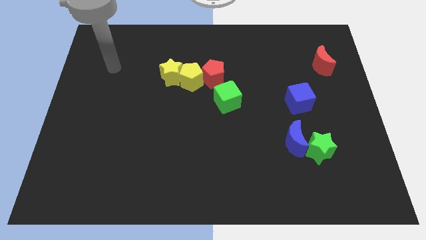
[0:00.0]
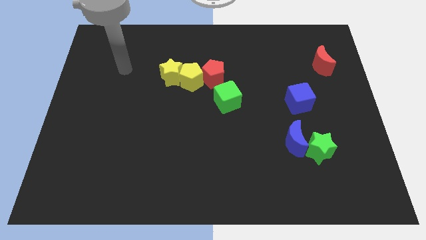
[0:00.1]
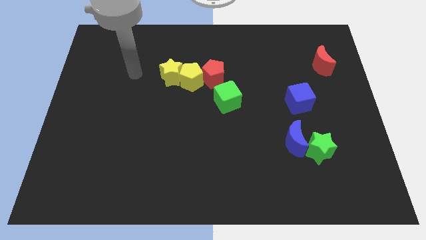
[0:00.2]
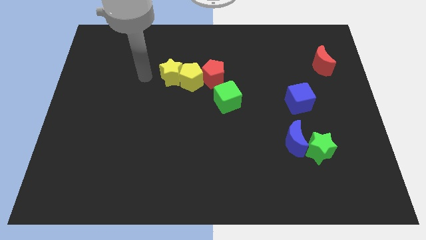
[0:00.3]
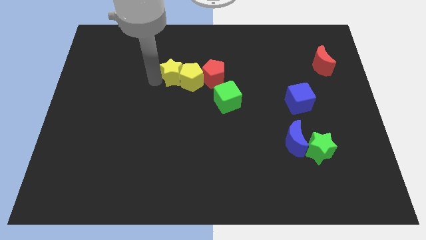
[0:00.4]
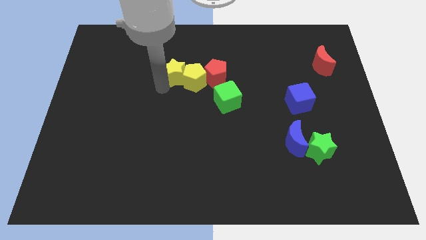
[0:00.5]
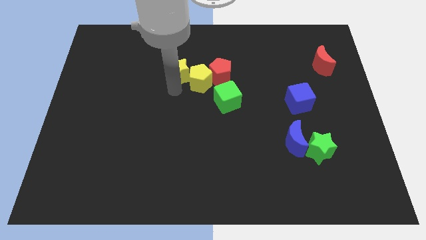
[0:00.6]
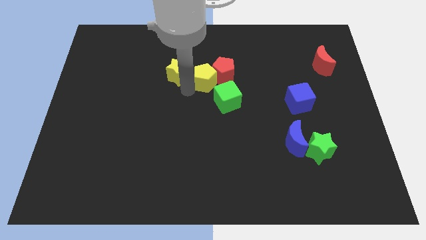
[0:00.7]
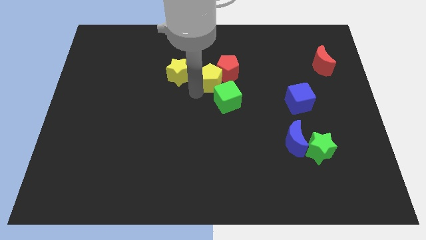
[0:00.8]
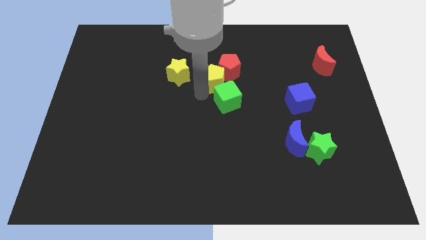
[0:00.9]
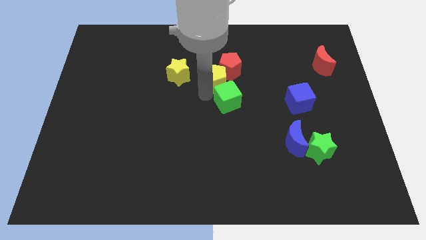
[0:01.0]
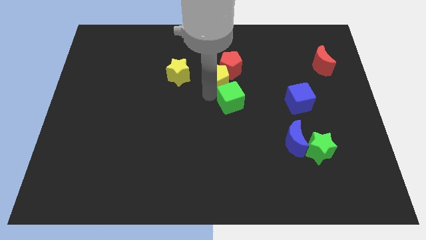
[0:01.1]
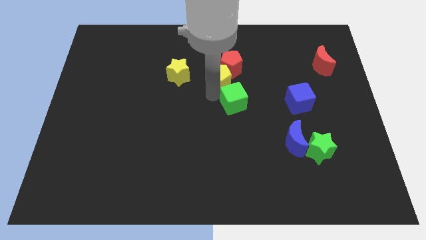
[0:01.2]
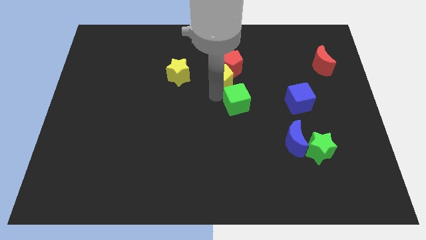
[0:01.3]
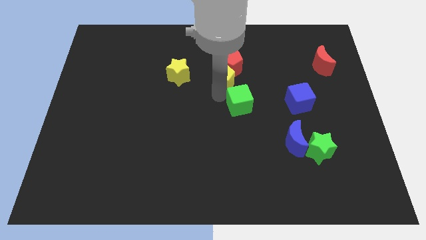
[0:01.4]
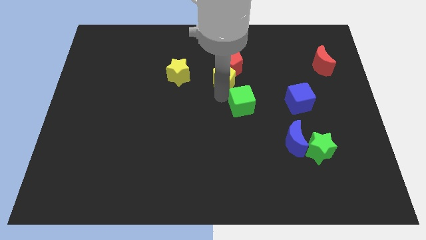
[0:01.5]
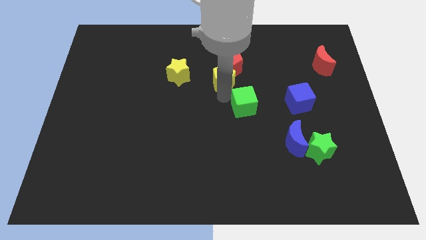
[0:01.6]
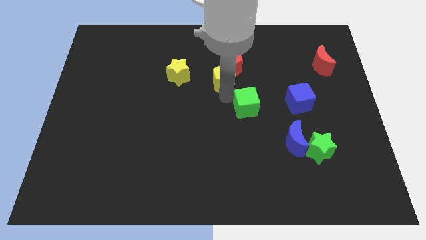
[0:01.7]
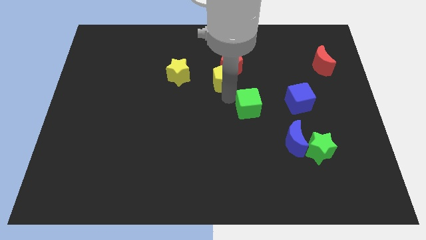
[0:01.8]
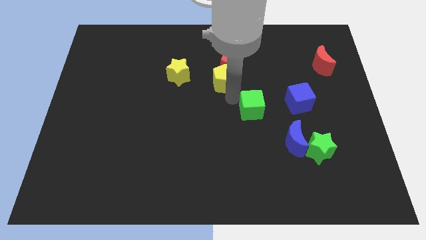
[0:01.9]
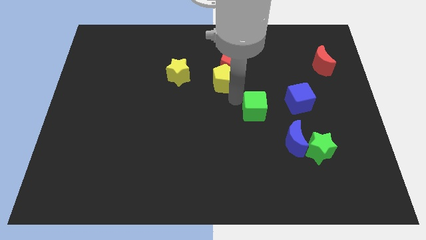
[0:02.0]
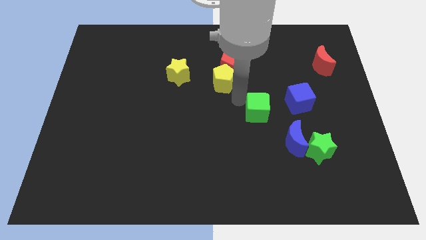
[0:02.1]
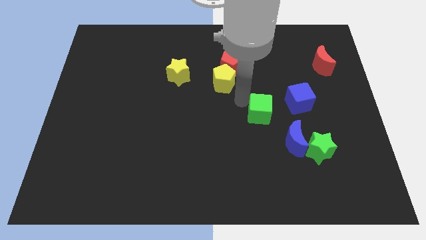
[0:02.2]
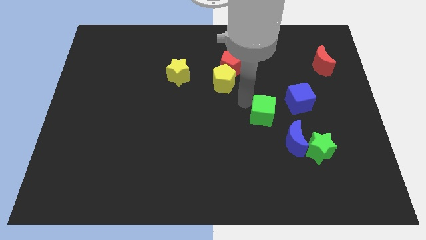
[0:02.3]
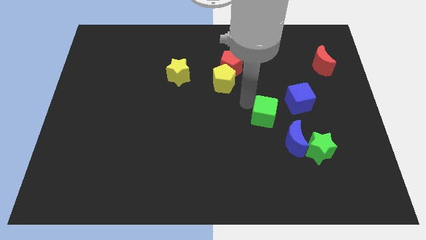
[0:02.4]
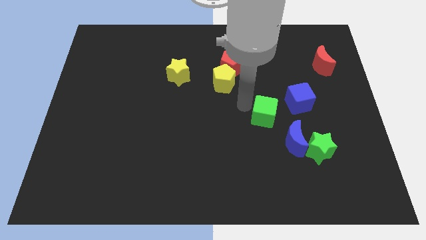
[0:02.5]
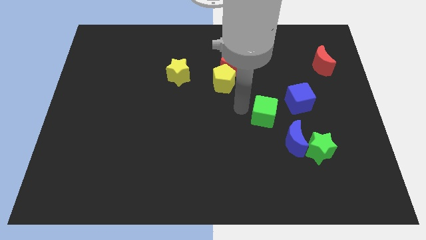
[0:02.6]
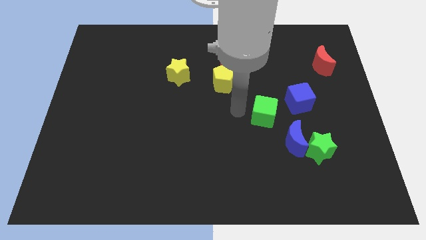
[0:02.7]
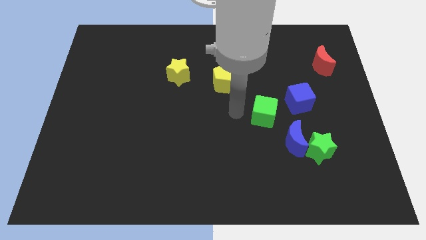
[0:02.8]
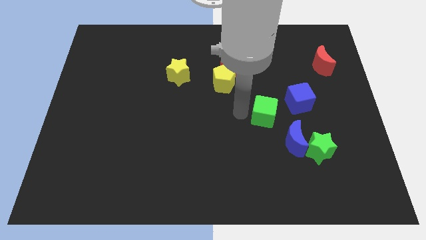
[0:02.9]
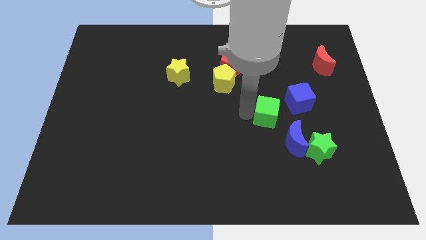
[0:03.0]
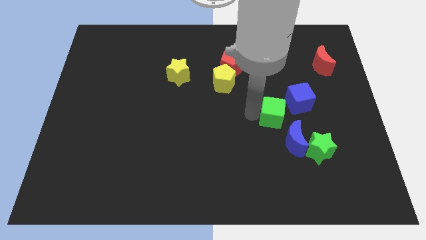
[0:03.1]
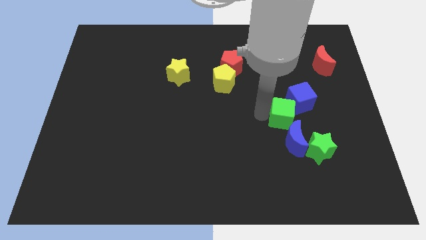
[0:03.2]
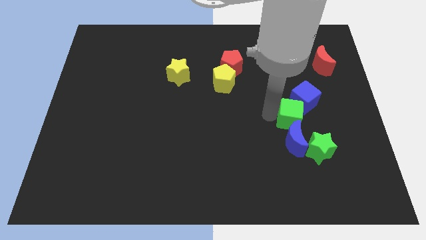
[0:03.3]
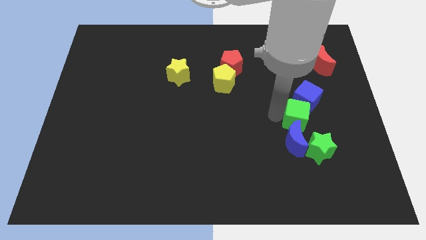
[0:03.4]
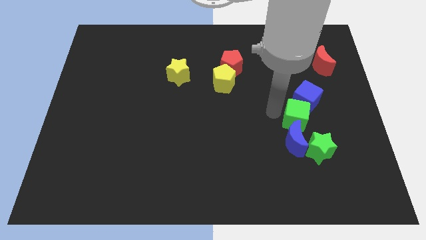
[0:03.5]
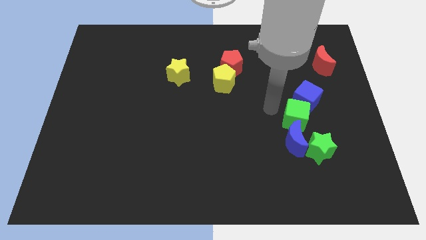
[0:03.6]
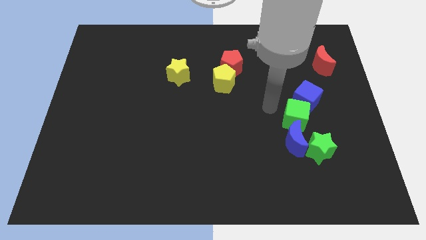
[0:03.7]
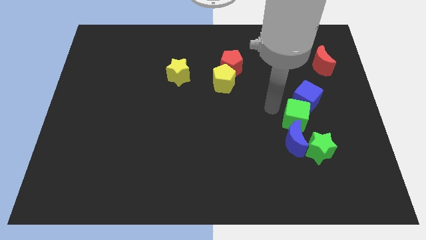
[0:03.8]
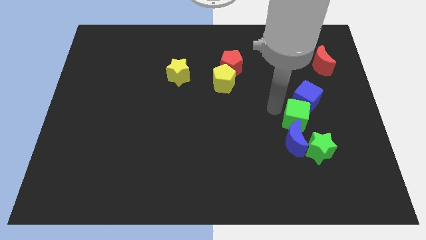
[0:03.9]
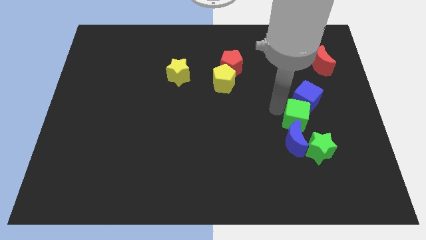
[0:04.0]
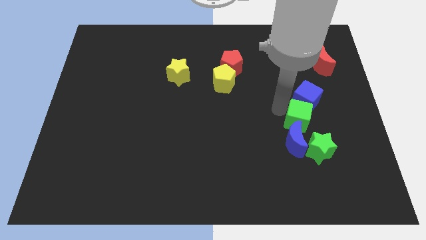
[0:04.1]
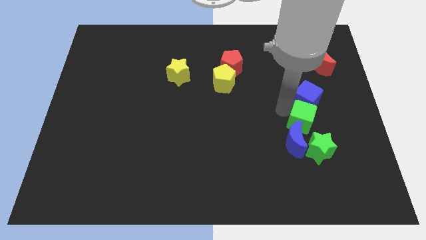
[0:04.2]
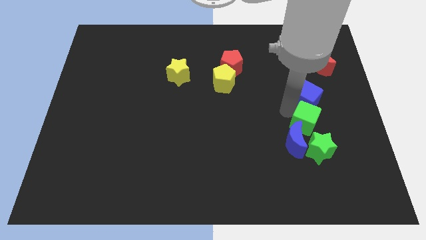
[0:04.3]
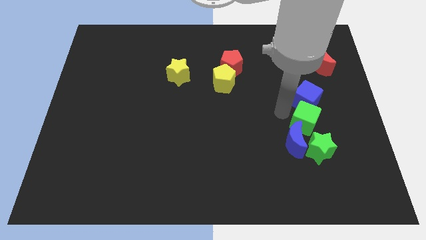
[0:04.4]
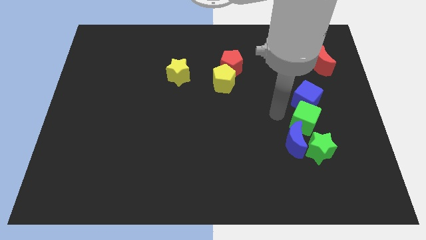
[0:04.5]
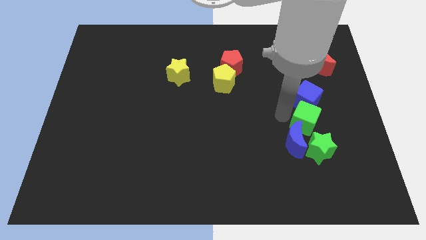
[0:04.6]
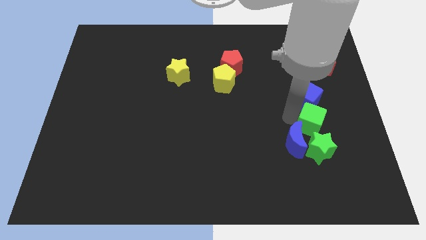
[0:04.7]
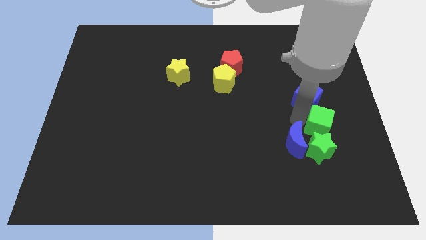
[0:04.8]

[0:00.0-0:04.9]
put the green cube diagonally up and to the right of the green star

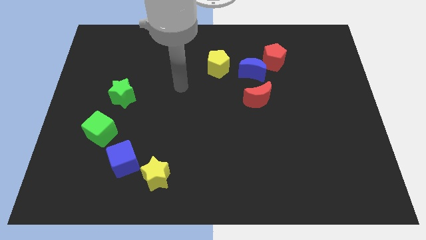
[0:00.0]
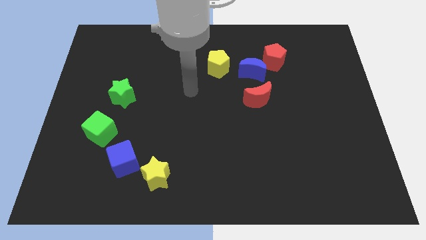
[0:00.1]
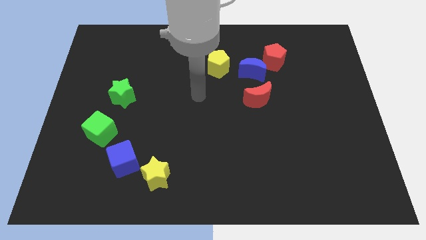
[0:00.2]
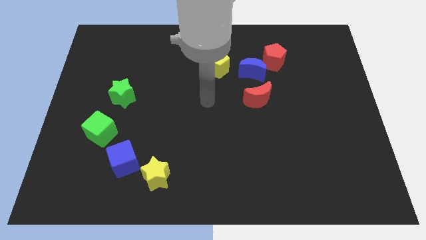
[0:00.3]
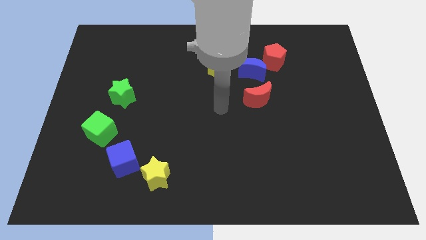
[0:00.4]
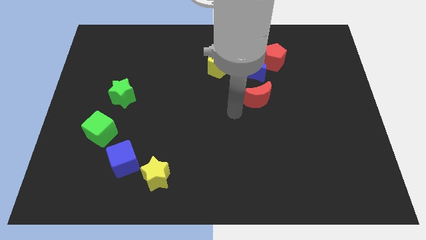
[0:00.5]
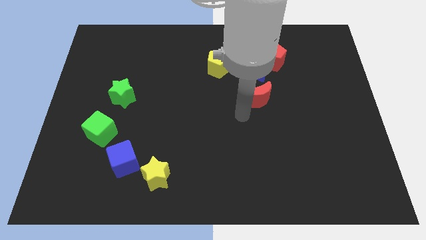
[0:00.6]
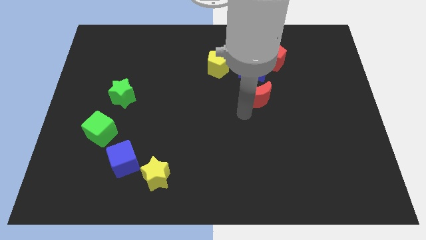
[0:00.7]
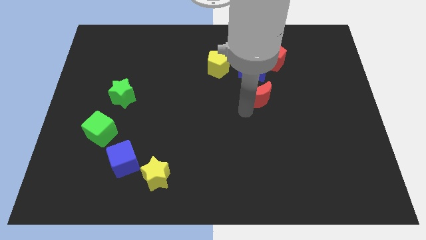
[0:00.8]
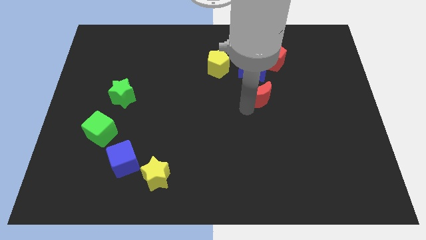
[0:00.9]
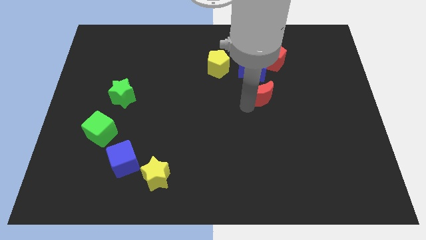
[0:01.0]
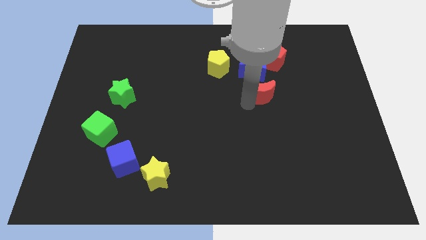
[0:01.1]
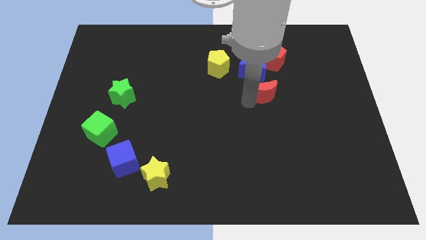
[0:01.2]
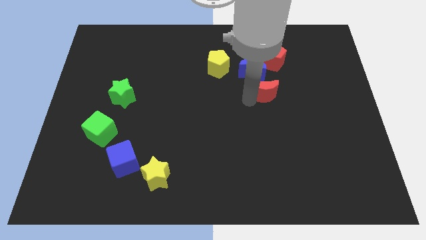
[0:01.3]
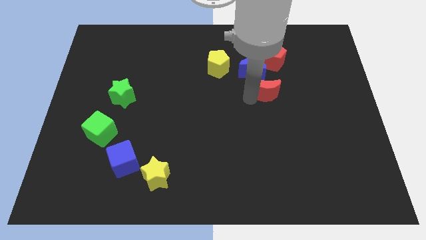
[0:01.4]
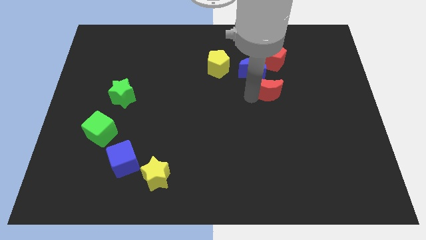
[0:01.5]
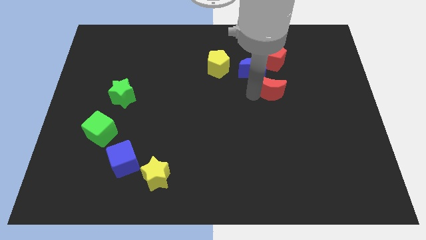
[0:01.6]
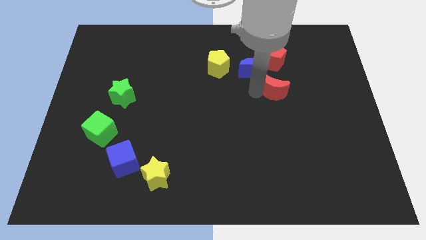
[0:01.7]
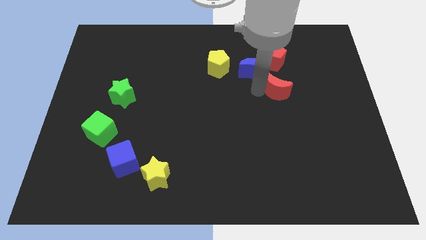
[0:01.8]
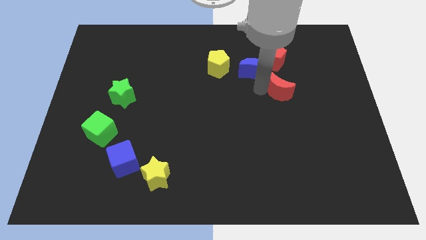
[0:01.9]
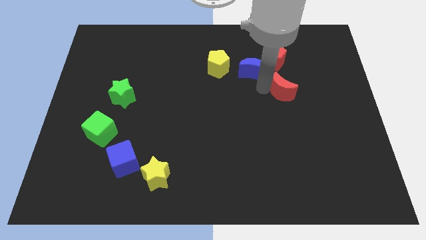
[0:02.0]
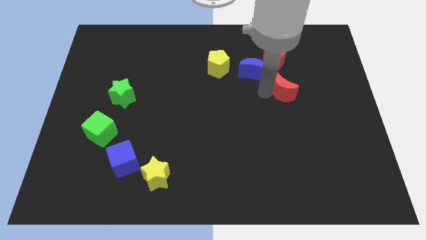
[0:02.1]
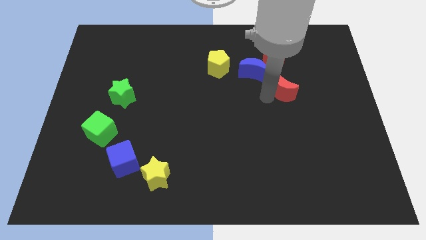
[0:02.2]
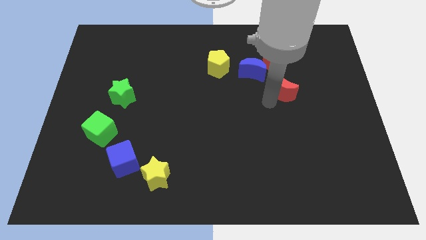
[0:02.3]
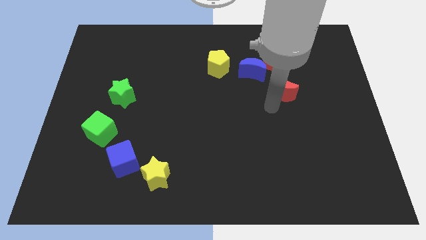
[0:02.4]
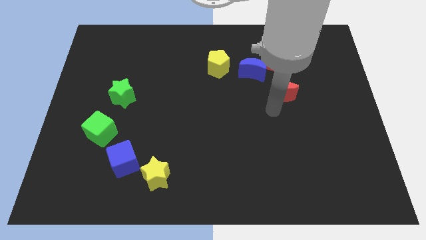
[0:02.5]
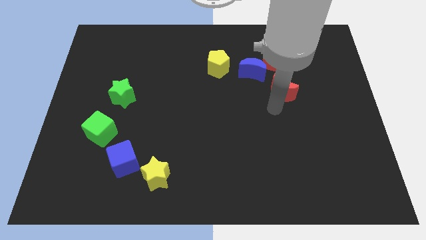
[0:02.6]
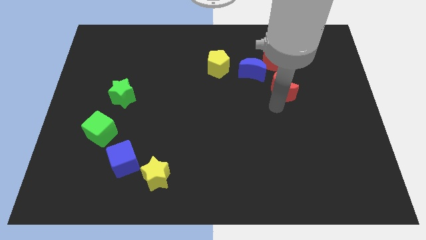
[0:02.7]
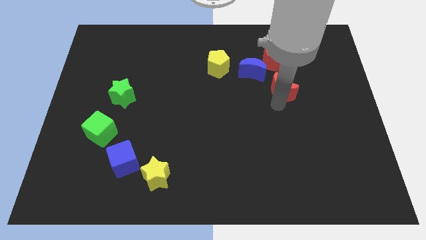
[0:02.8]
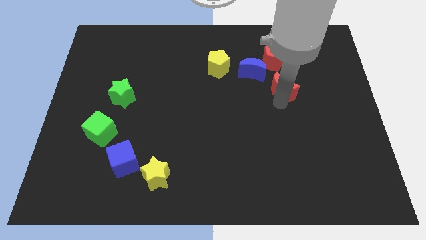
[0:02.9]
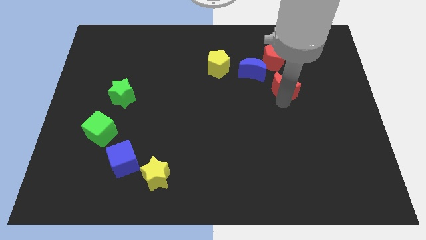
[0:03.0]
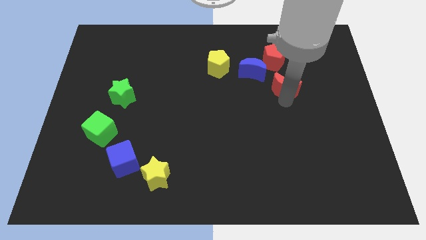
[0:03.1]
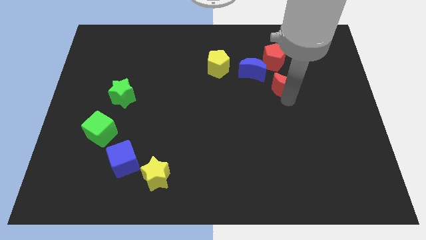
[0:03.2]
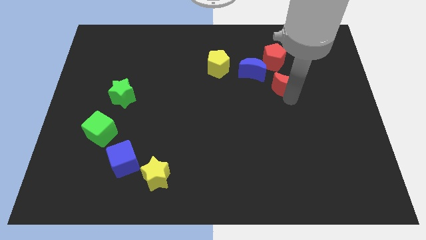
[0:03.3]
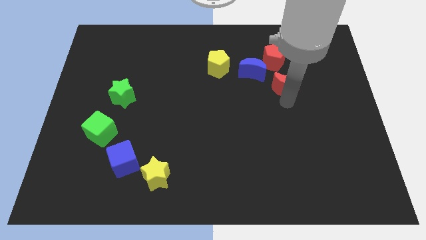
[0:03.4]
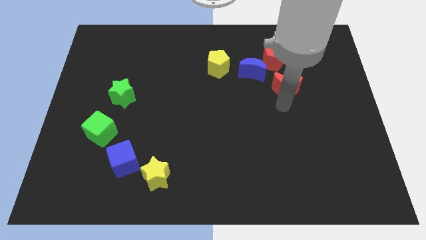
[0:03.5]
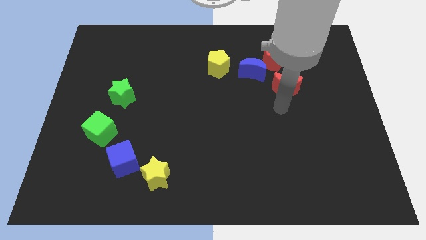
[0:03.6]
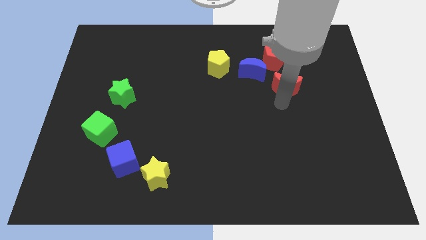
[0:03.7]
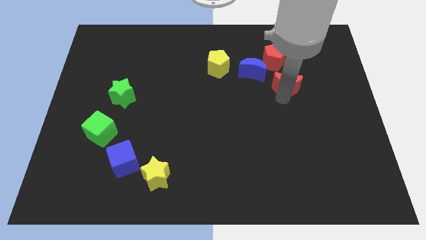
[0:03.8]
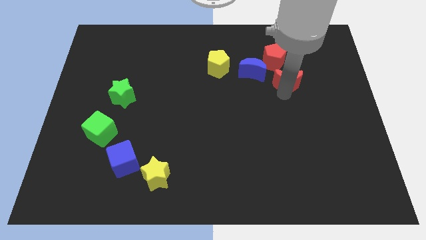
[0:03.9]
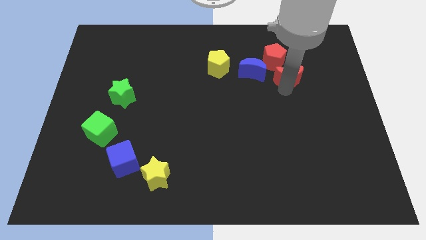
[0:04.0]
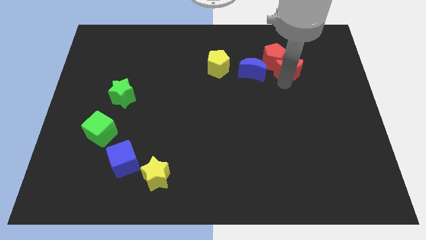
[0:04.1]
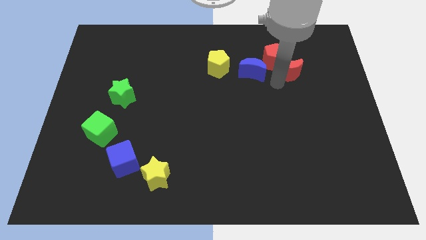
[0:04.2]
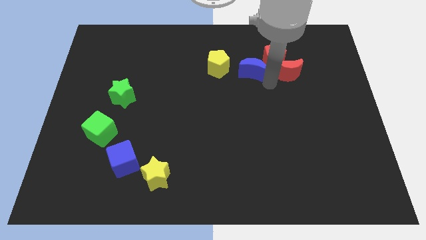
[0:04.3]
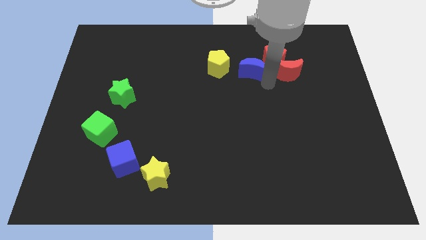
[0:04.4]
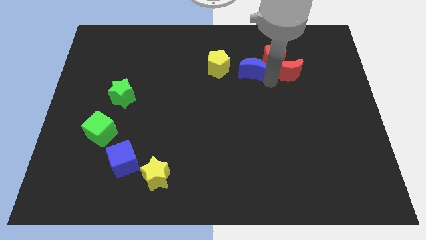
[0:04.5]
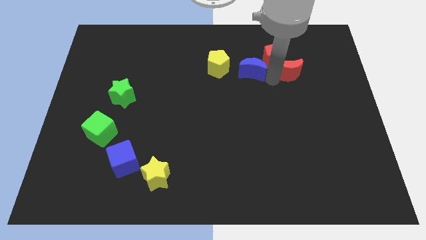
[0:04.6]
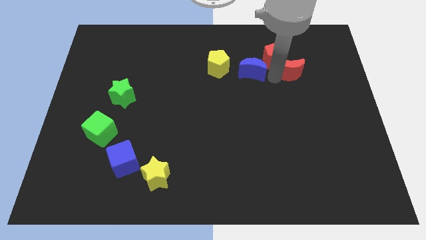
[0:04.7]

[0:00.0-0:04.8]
put the red moon just right of the red pentagon
